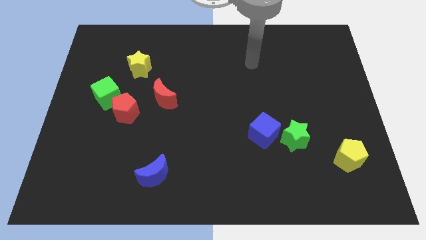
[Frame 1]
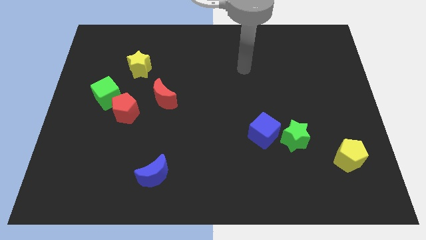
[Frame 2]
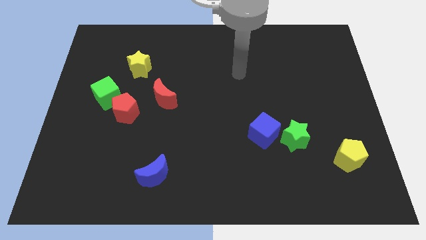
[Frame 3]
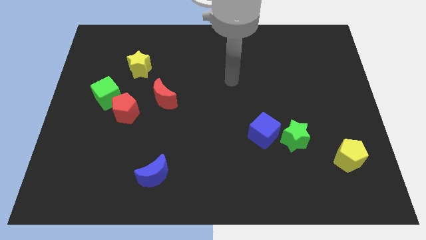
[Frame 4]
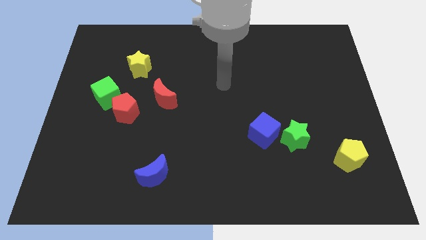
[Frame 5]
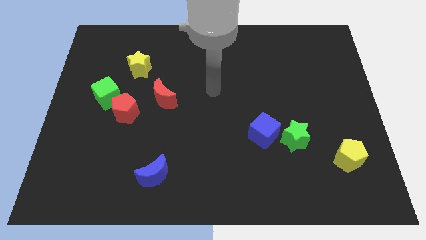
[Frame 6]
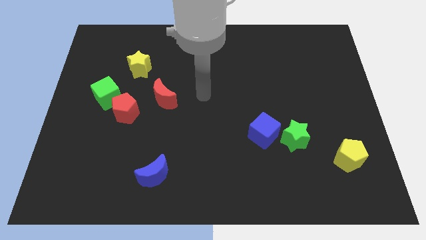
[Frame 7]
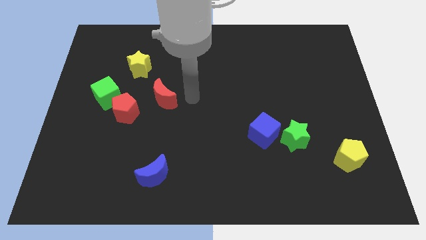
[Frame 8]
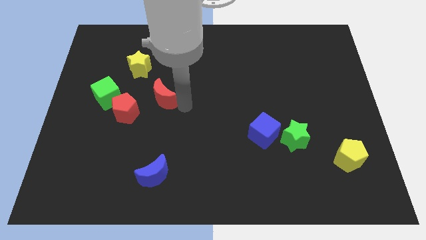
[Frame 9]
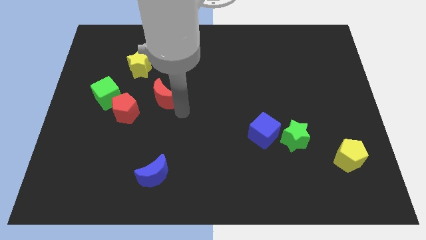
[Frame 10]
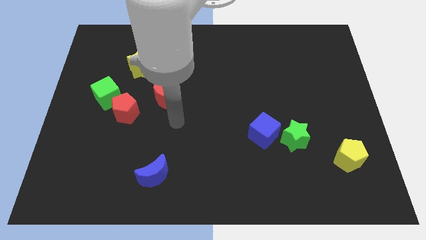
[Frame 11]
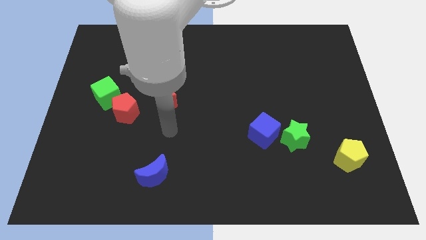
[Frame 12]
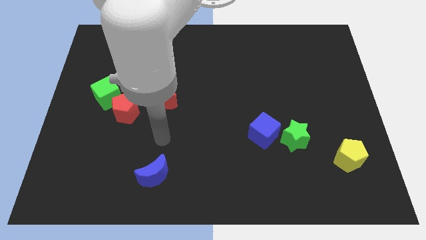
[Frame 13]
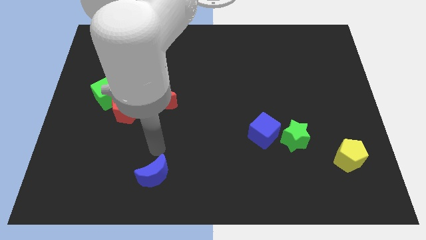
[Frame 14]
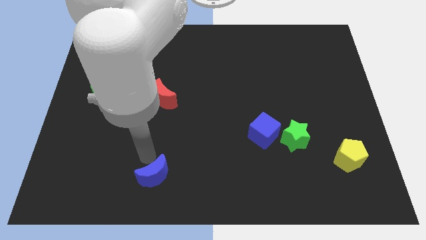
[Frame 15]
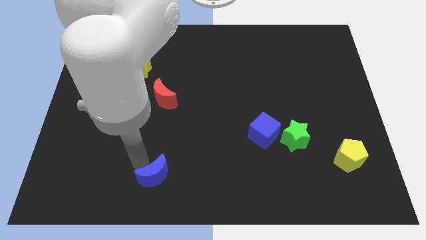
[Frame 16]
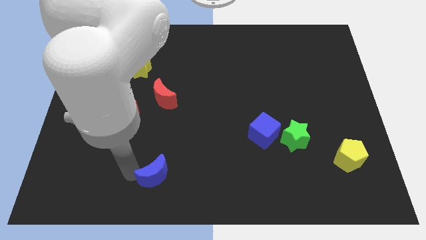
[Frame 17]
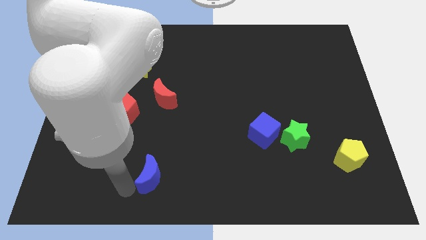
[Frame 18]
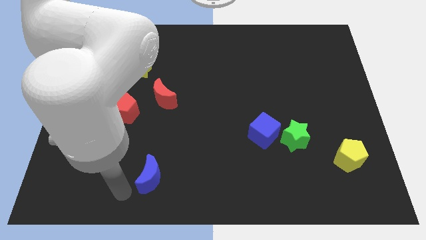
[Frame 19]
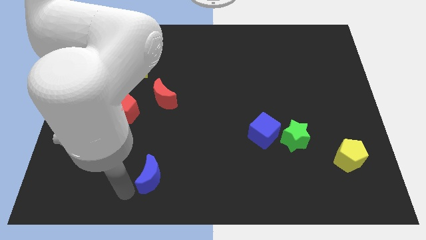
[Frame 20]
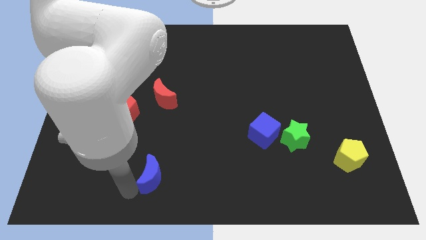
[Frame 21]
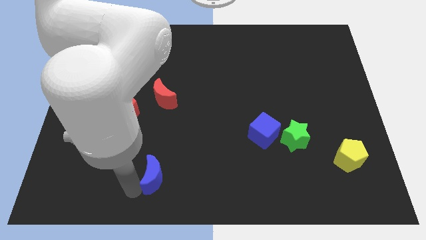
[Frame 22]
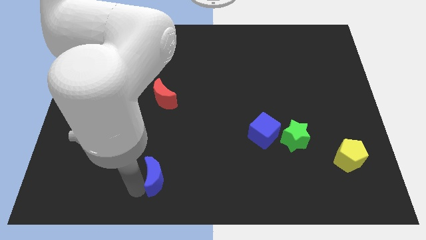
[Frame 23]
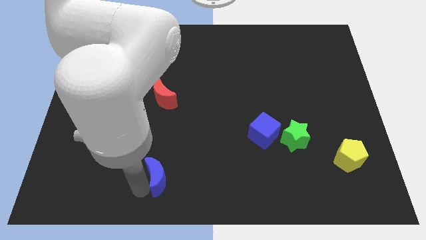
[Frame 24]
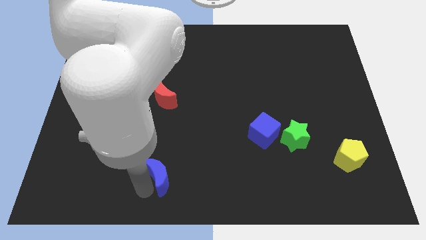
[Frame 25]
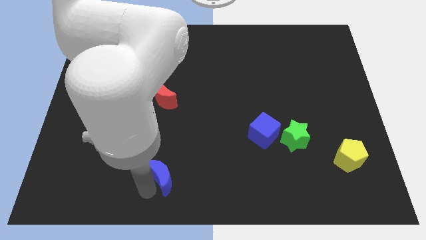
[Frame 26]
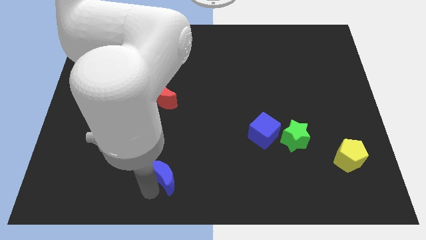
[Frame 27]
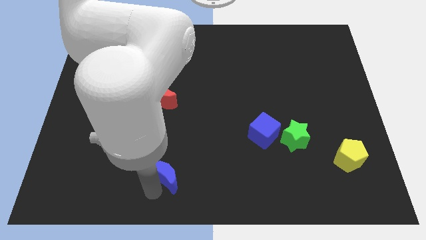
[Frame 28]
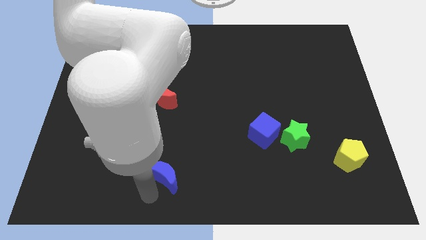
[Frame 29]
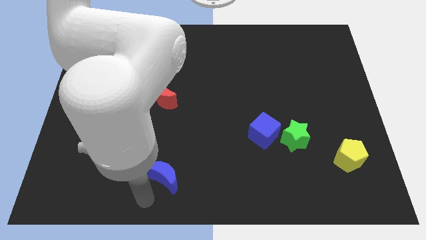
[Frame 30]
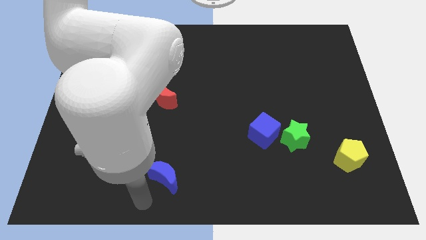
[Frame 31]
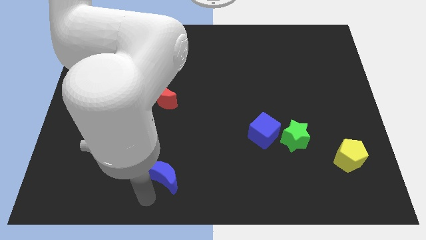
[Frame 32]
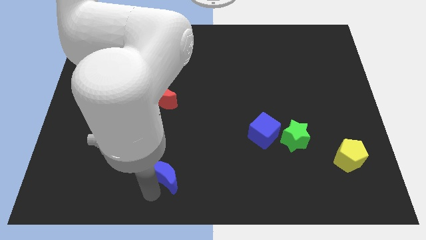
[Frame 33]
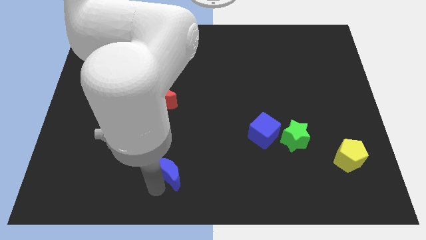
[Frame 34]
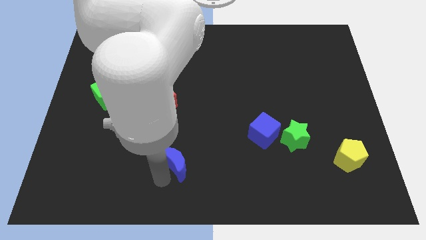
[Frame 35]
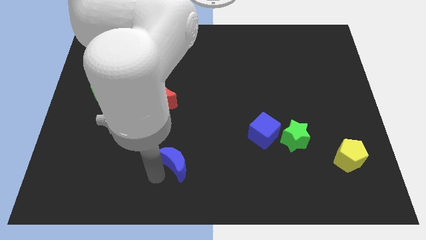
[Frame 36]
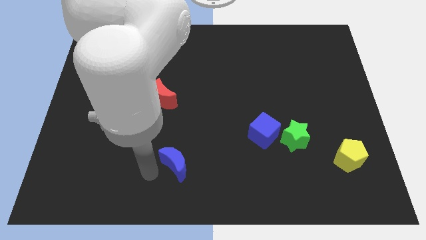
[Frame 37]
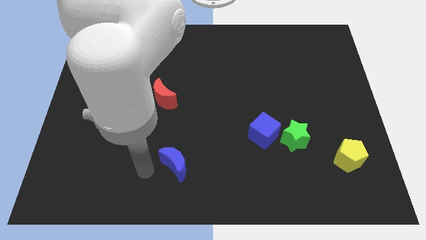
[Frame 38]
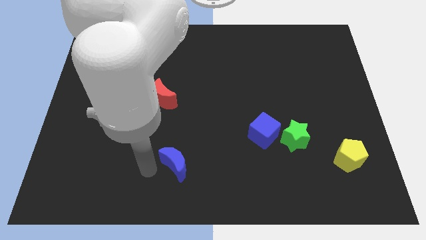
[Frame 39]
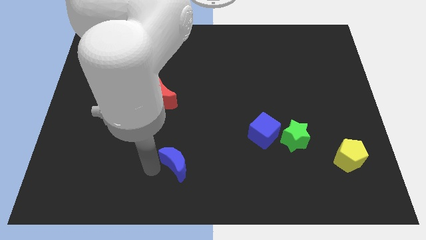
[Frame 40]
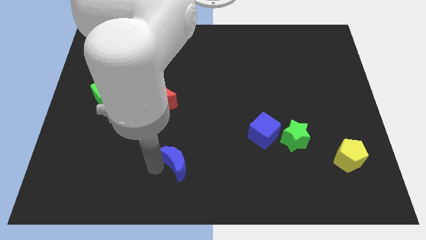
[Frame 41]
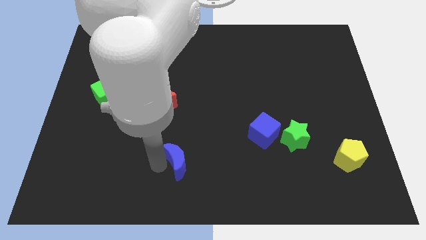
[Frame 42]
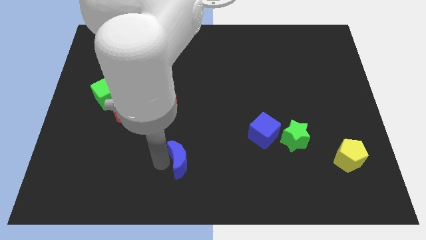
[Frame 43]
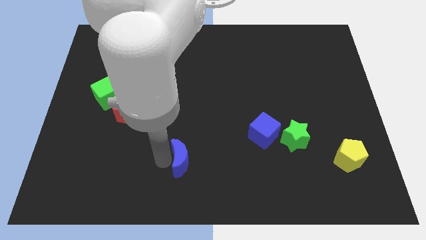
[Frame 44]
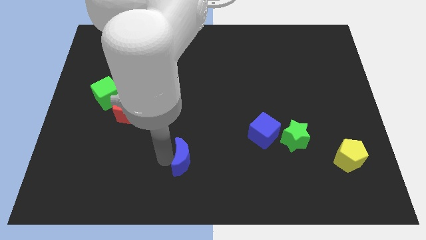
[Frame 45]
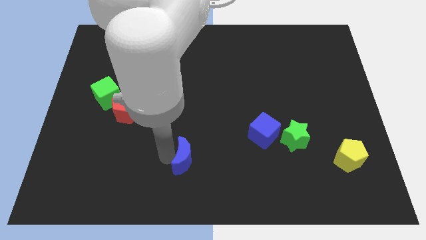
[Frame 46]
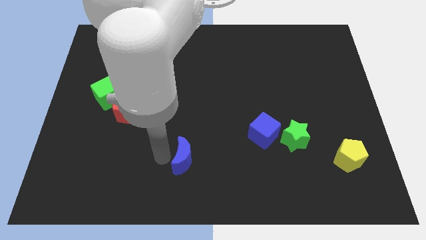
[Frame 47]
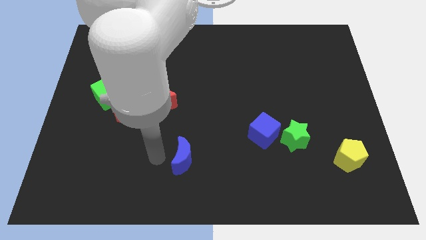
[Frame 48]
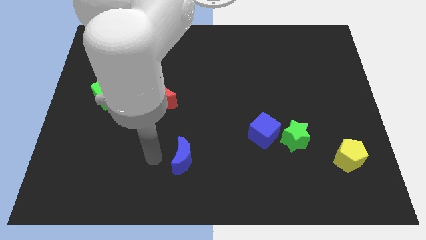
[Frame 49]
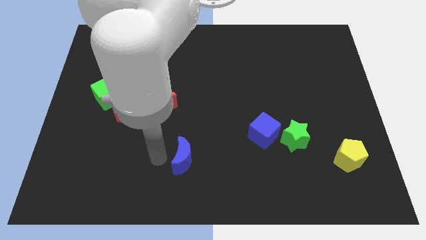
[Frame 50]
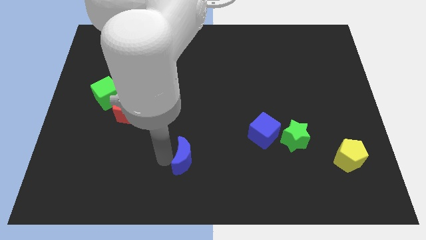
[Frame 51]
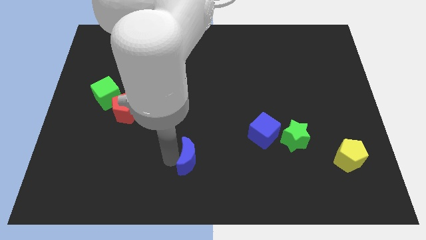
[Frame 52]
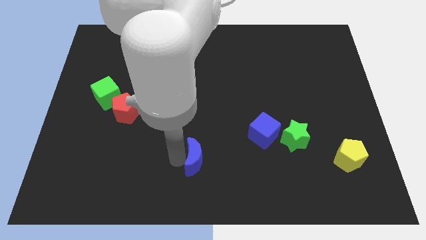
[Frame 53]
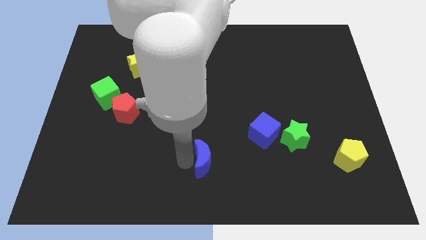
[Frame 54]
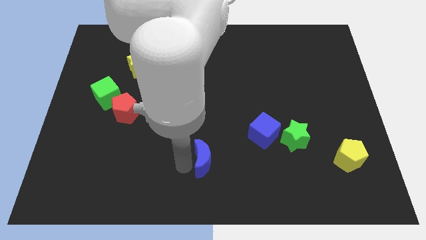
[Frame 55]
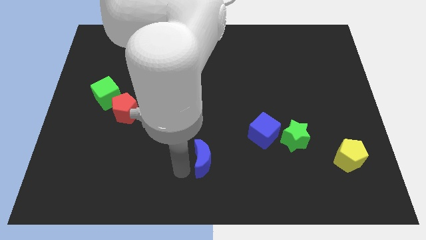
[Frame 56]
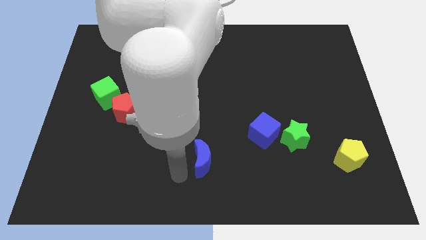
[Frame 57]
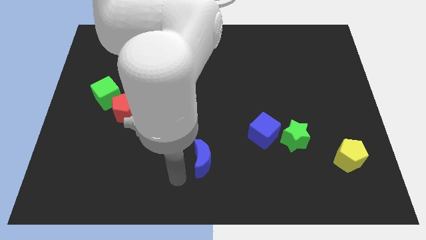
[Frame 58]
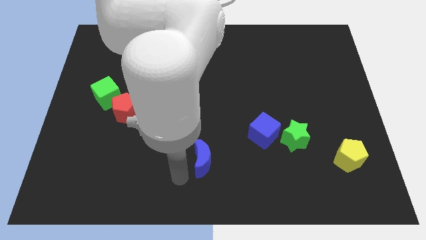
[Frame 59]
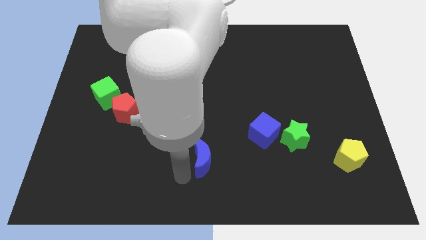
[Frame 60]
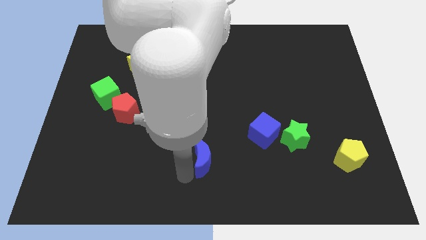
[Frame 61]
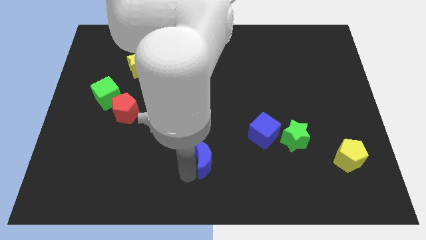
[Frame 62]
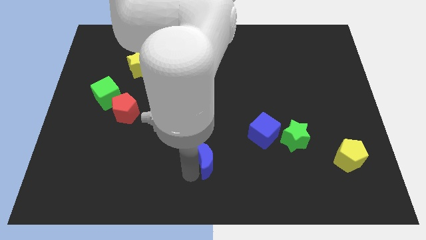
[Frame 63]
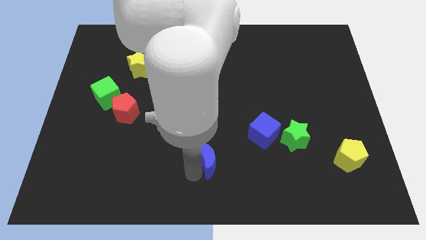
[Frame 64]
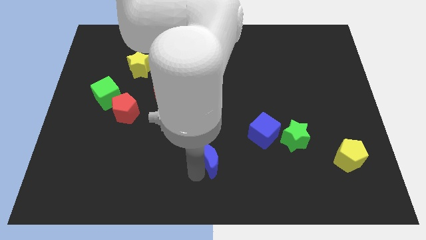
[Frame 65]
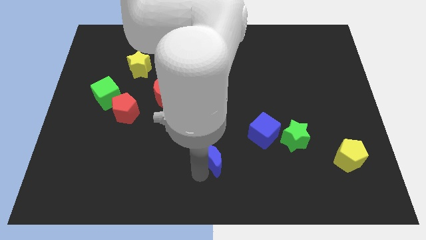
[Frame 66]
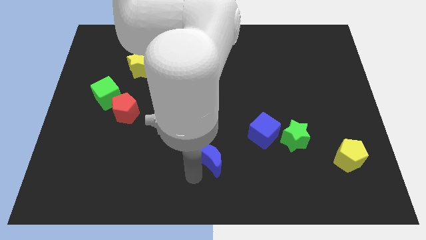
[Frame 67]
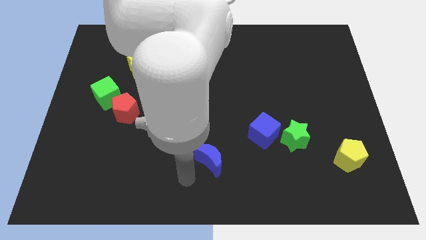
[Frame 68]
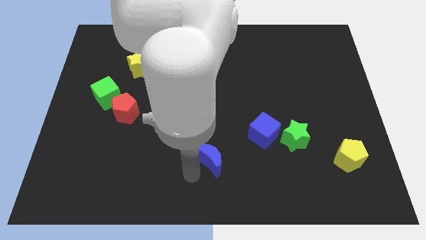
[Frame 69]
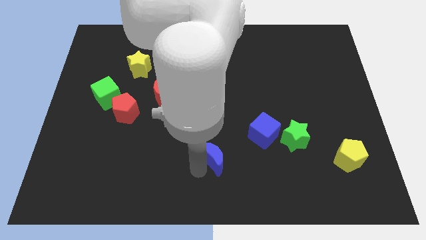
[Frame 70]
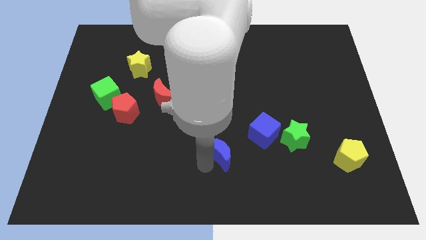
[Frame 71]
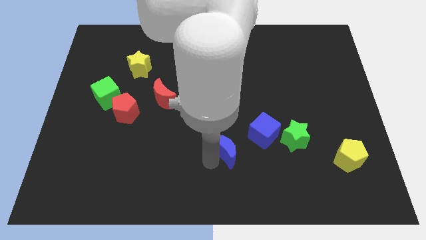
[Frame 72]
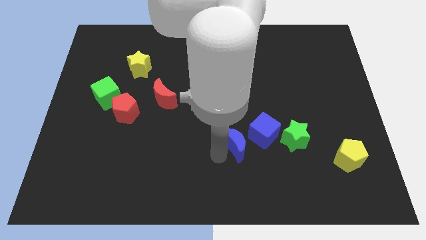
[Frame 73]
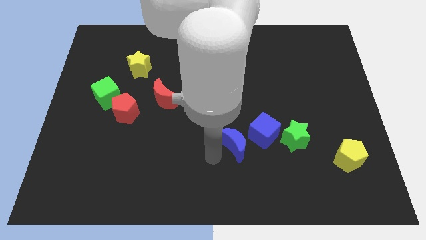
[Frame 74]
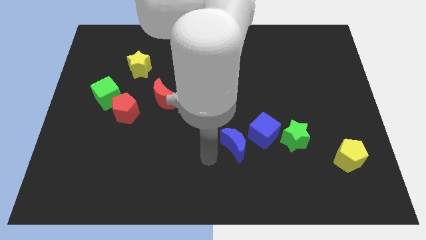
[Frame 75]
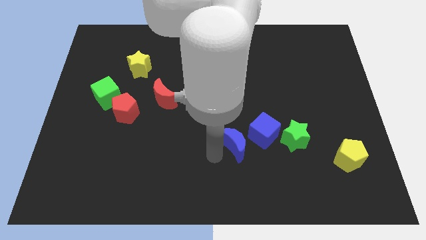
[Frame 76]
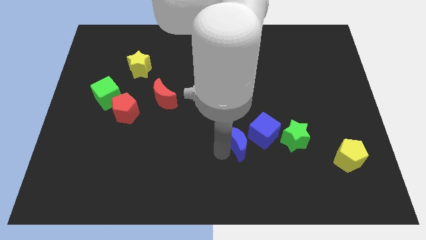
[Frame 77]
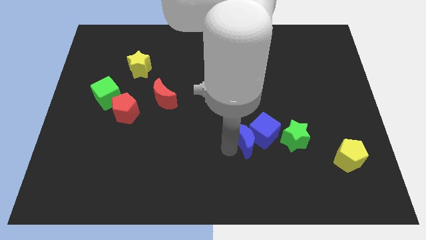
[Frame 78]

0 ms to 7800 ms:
slide the blue moon close to the blue cube

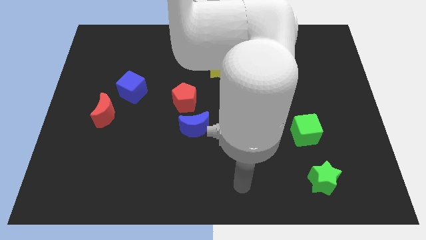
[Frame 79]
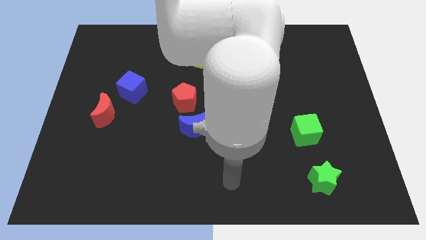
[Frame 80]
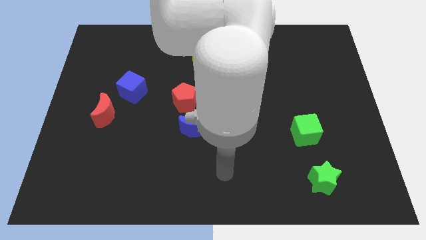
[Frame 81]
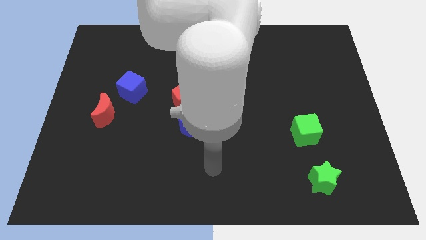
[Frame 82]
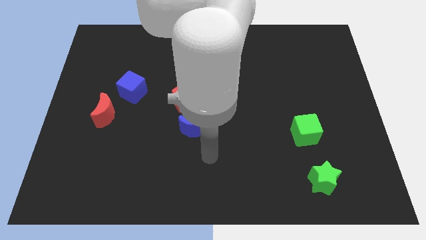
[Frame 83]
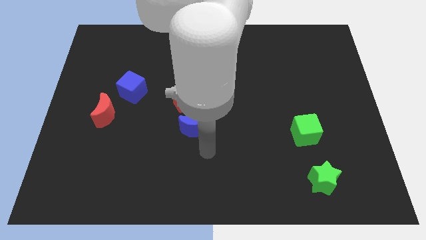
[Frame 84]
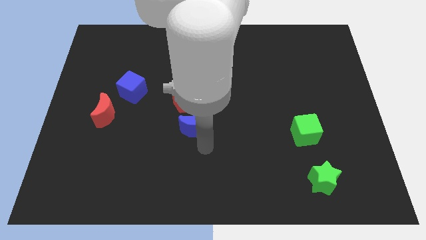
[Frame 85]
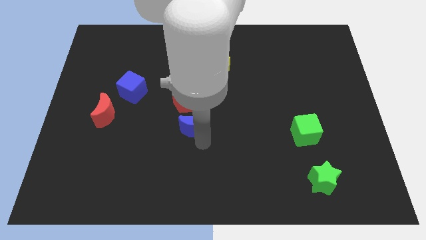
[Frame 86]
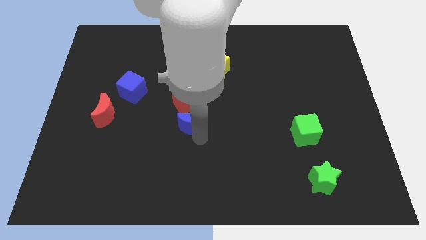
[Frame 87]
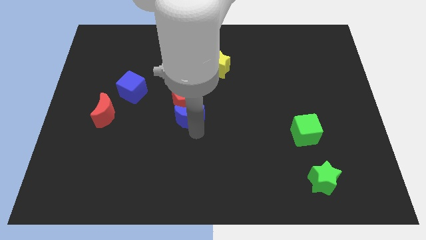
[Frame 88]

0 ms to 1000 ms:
move the blue moon next to the red pentagon
